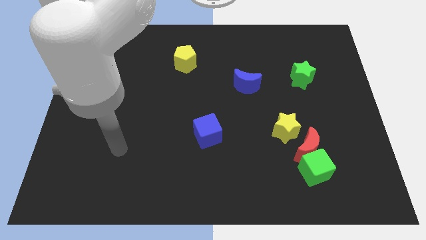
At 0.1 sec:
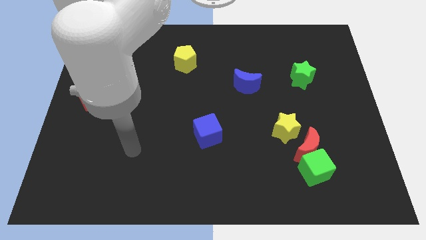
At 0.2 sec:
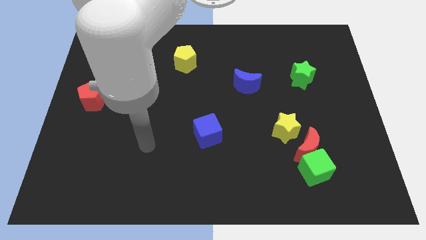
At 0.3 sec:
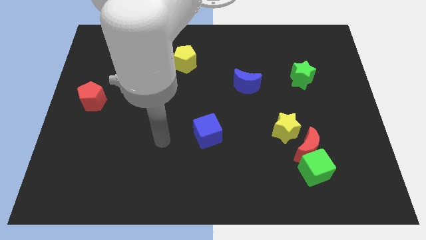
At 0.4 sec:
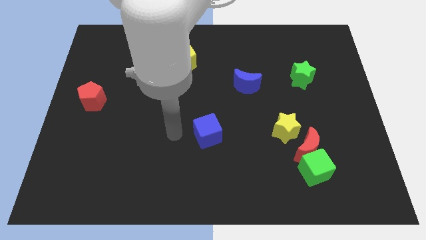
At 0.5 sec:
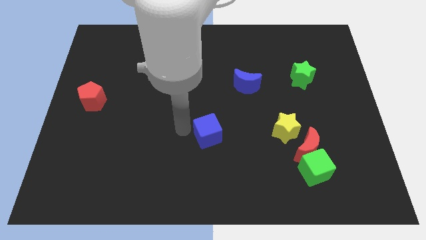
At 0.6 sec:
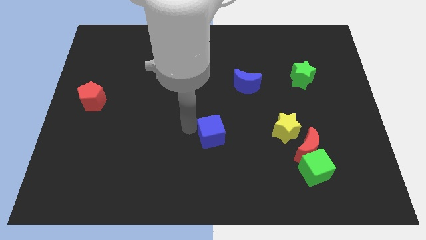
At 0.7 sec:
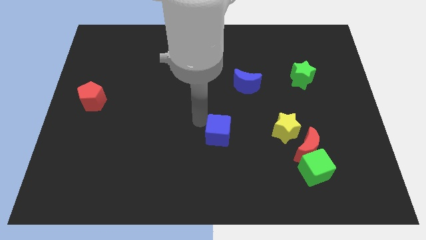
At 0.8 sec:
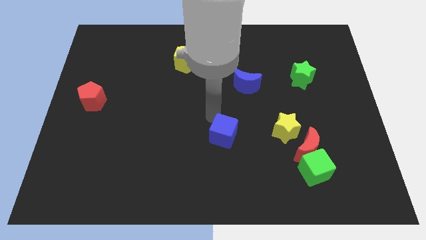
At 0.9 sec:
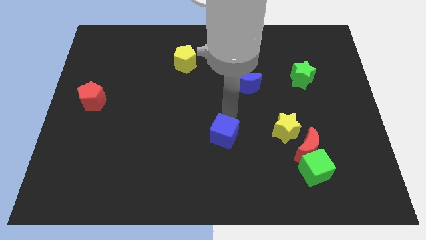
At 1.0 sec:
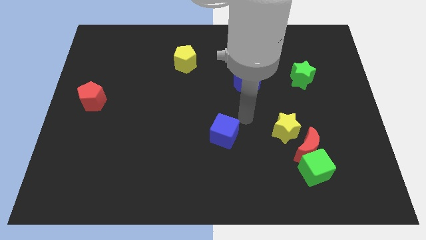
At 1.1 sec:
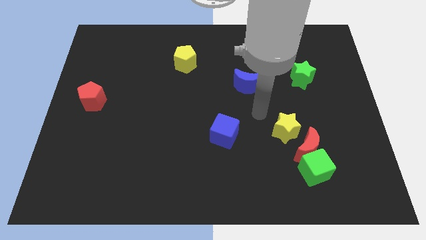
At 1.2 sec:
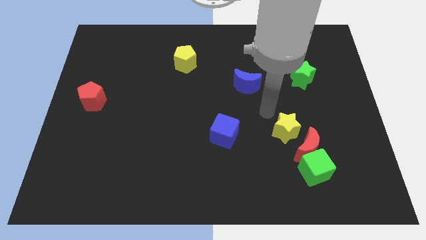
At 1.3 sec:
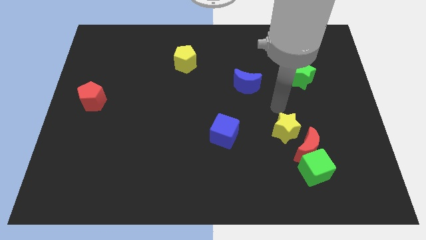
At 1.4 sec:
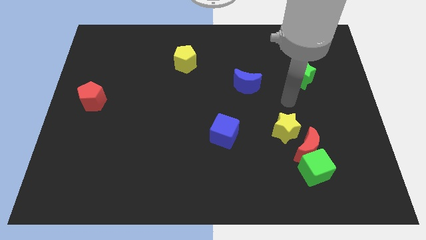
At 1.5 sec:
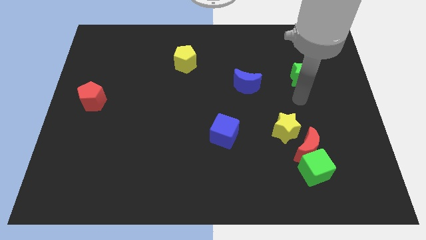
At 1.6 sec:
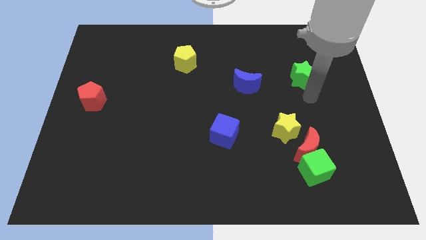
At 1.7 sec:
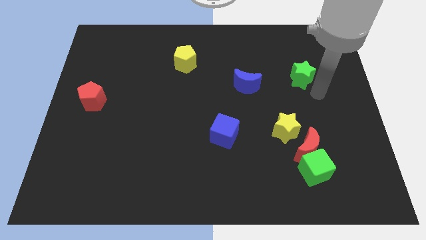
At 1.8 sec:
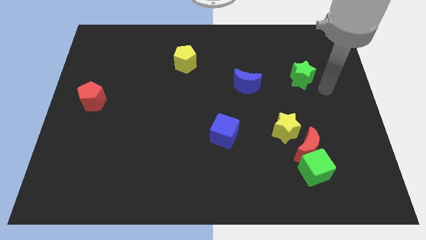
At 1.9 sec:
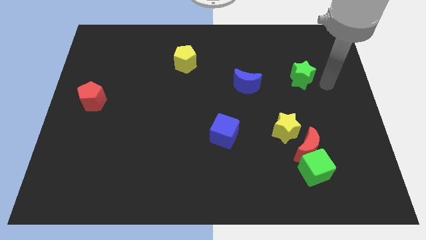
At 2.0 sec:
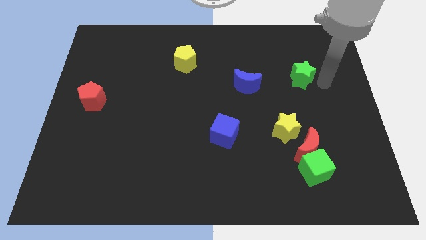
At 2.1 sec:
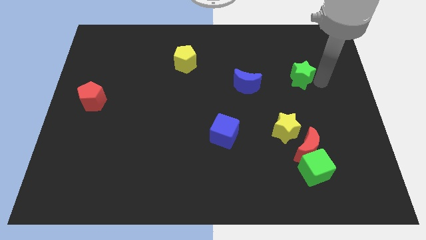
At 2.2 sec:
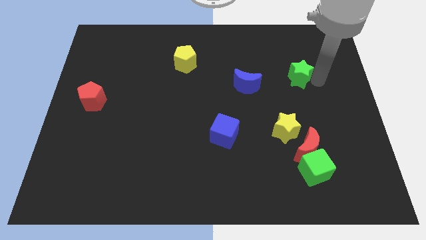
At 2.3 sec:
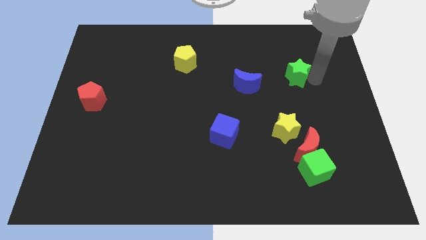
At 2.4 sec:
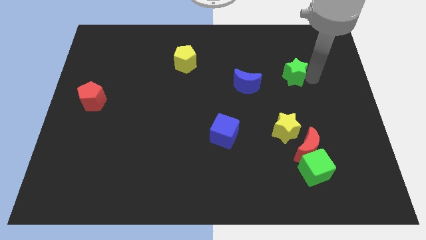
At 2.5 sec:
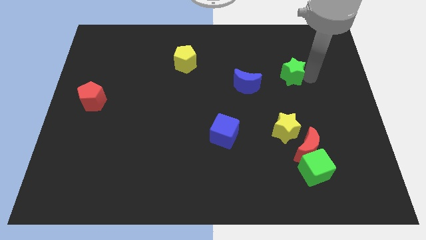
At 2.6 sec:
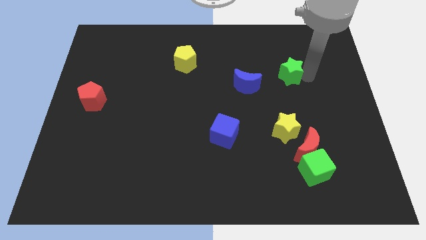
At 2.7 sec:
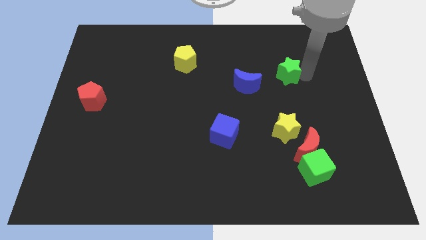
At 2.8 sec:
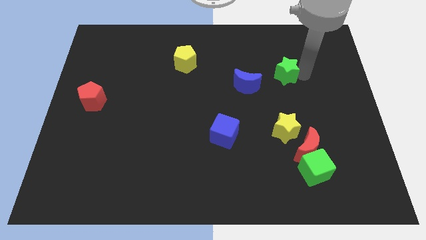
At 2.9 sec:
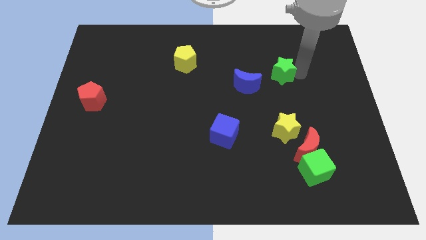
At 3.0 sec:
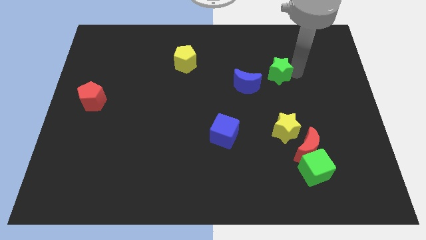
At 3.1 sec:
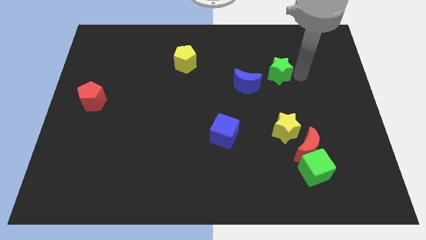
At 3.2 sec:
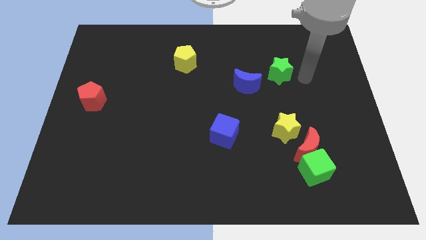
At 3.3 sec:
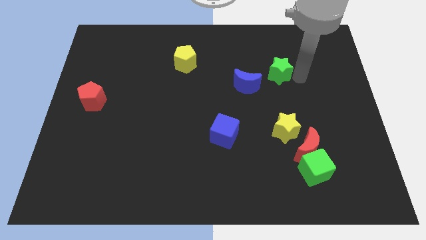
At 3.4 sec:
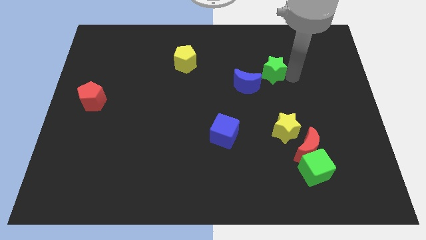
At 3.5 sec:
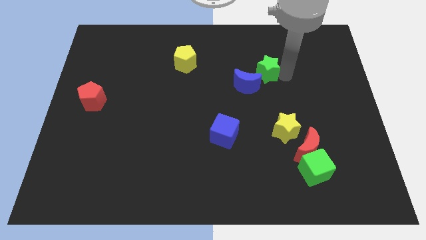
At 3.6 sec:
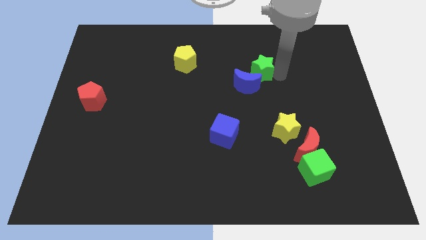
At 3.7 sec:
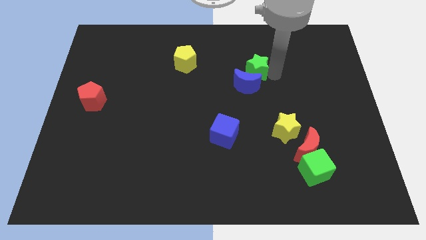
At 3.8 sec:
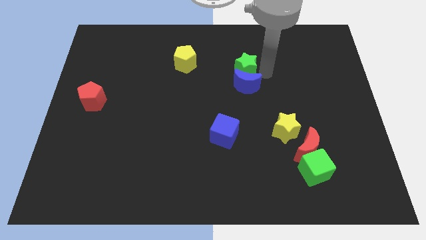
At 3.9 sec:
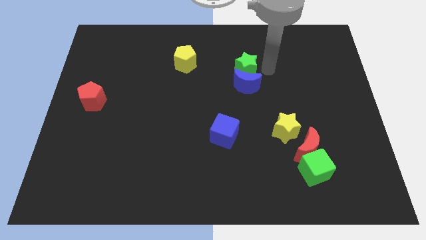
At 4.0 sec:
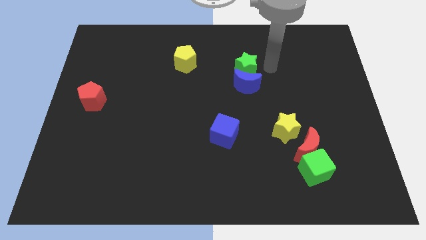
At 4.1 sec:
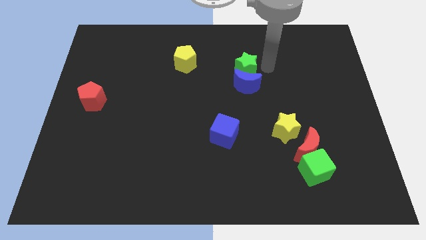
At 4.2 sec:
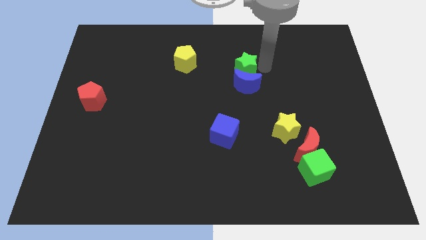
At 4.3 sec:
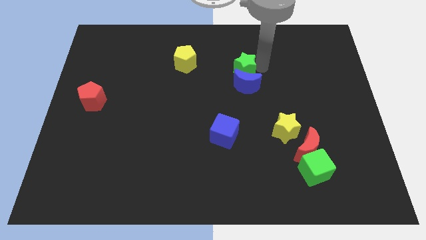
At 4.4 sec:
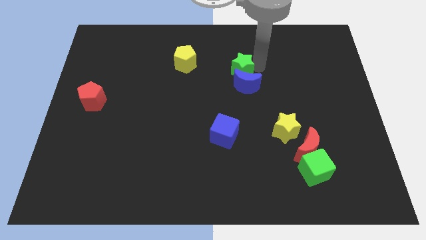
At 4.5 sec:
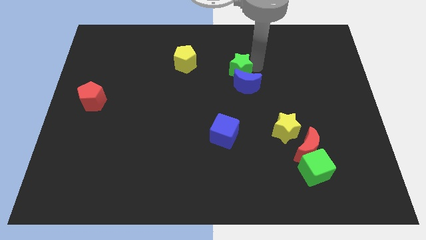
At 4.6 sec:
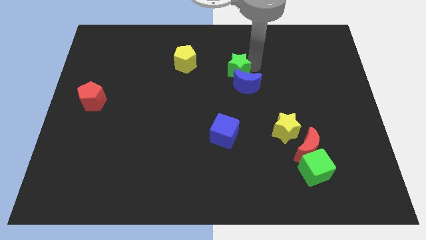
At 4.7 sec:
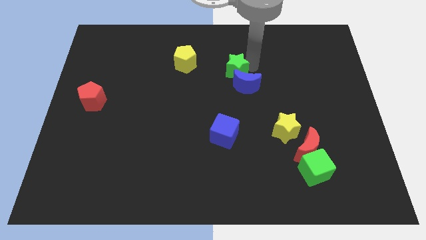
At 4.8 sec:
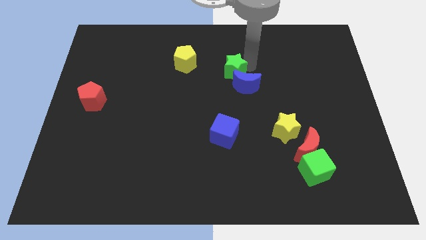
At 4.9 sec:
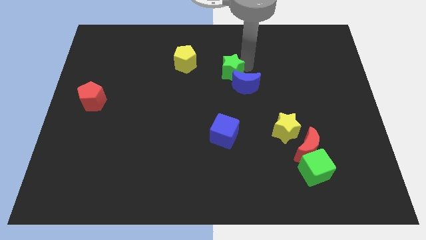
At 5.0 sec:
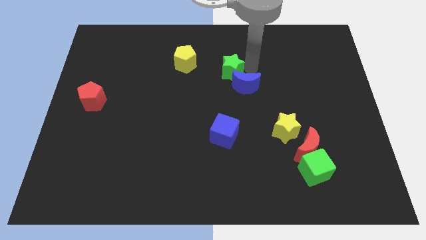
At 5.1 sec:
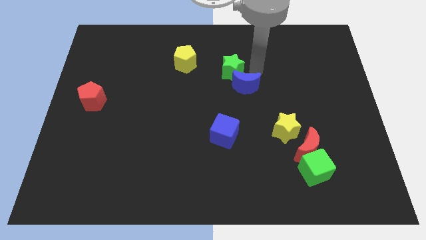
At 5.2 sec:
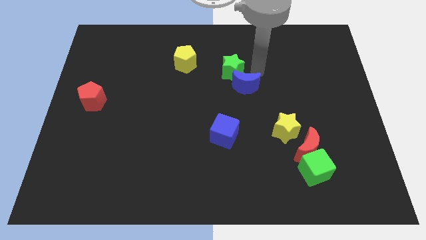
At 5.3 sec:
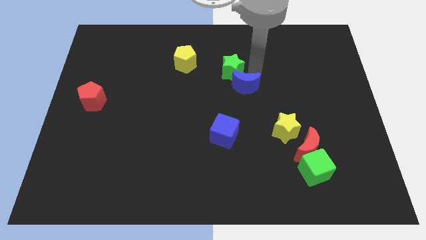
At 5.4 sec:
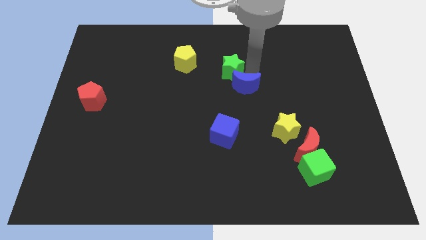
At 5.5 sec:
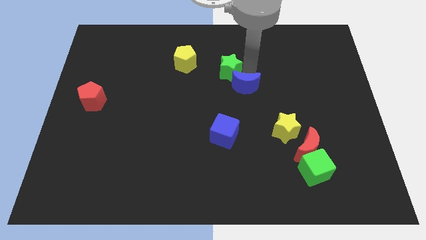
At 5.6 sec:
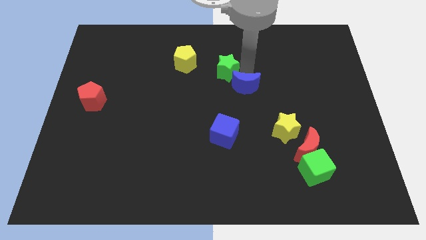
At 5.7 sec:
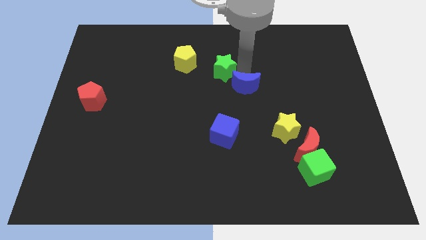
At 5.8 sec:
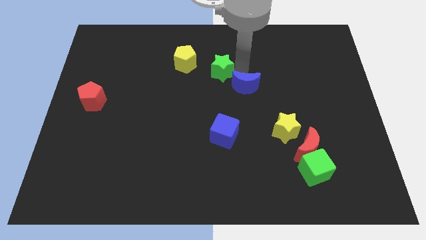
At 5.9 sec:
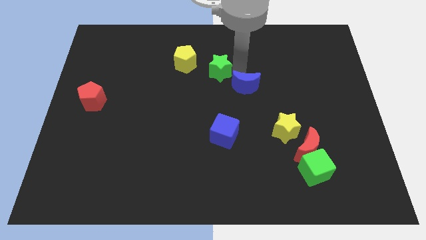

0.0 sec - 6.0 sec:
slide the green star left

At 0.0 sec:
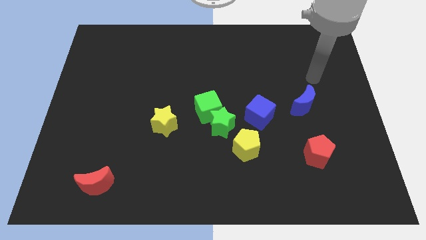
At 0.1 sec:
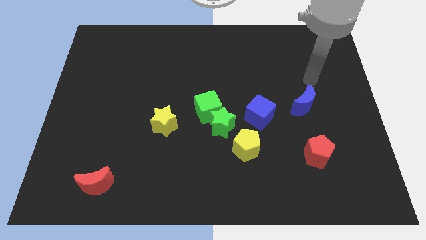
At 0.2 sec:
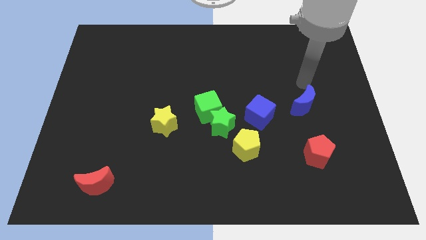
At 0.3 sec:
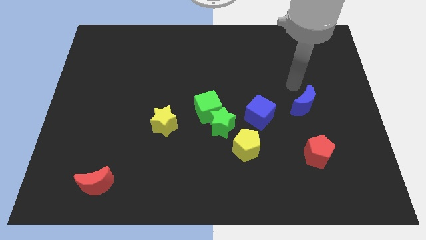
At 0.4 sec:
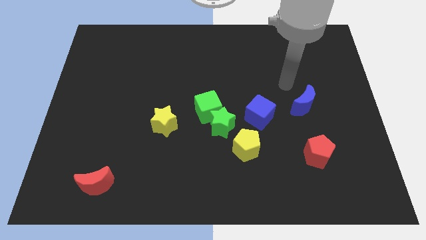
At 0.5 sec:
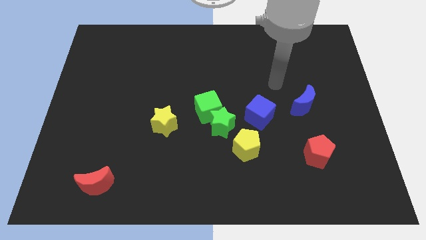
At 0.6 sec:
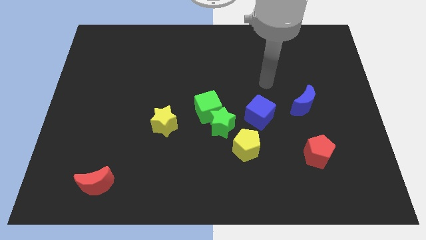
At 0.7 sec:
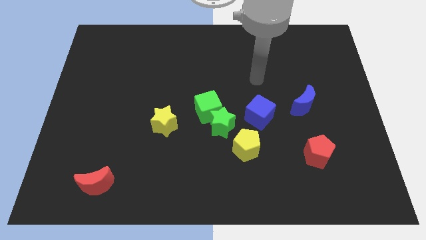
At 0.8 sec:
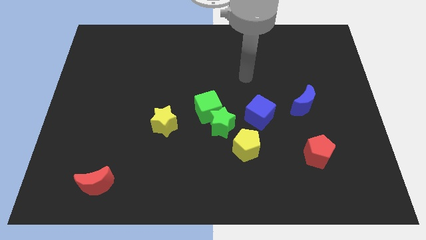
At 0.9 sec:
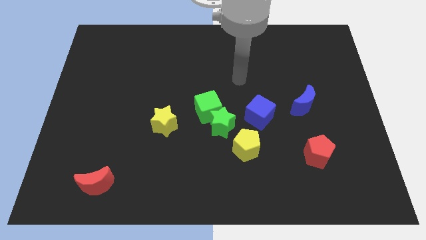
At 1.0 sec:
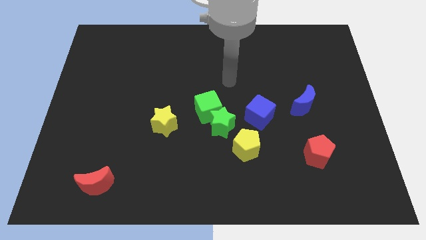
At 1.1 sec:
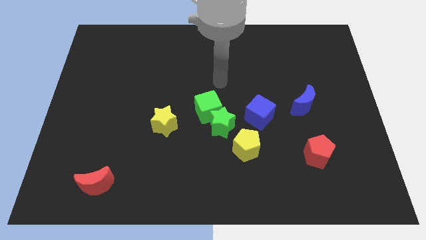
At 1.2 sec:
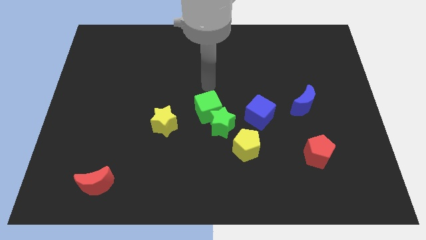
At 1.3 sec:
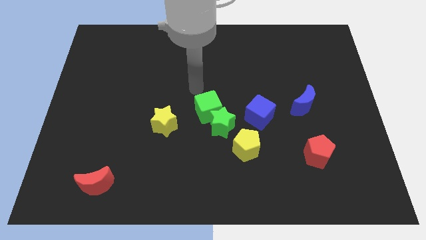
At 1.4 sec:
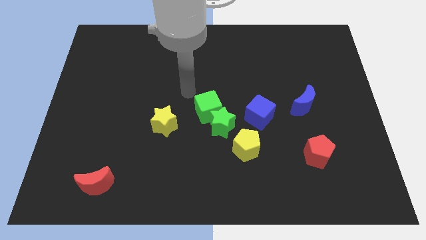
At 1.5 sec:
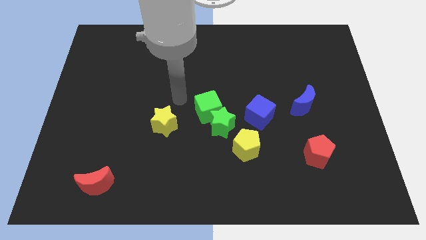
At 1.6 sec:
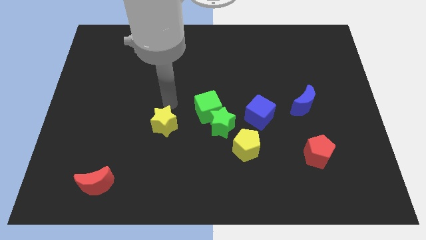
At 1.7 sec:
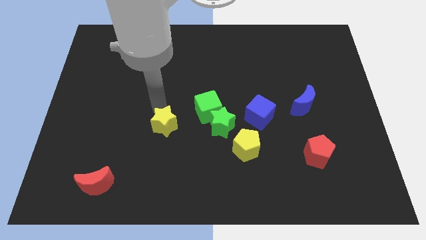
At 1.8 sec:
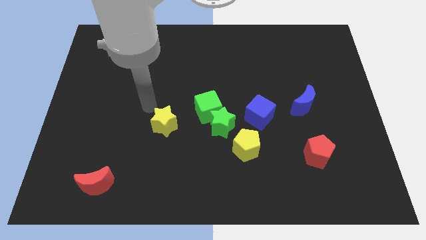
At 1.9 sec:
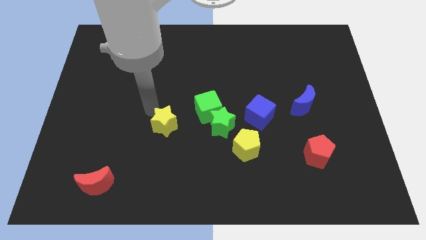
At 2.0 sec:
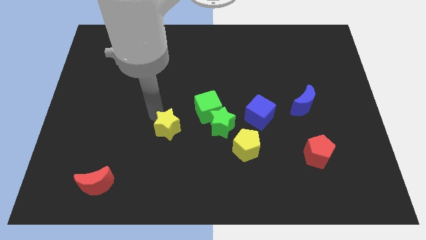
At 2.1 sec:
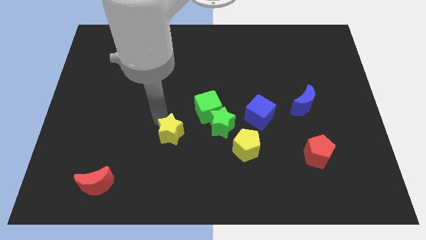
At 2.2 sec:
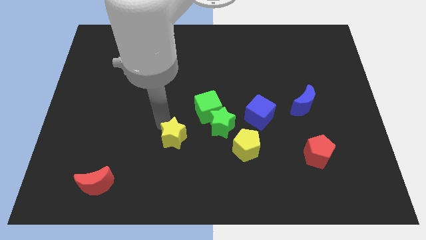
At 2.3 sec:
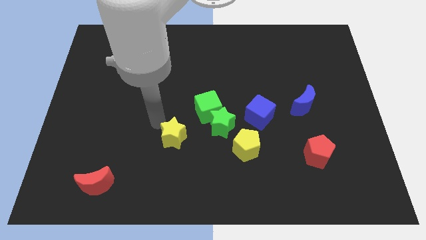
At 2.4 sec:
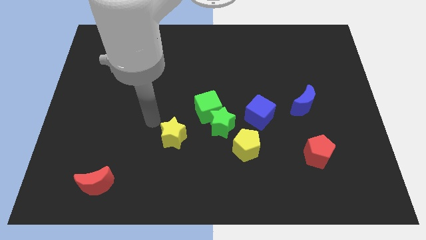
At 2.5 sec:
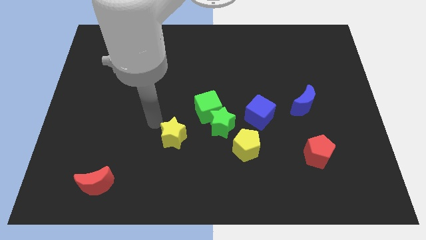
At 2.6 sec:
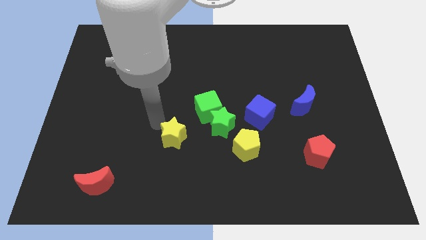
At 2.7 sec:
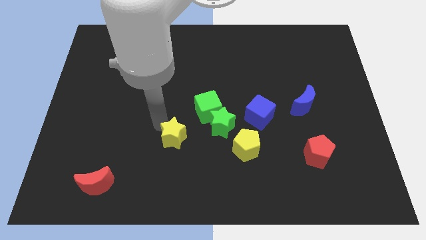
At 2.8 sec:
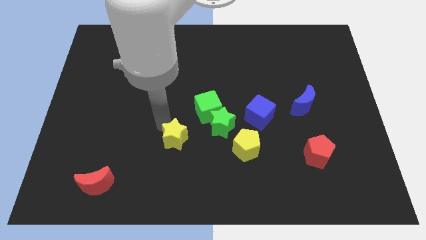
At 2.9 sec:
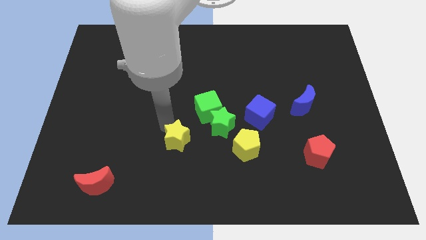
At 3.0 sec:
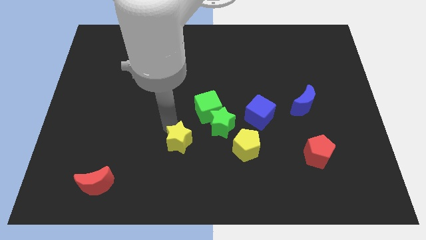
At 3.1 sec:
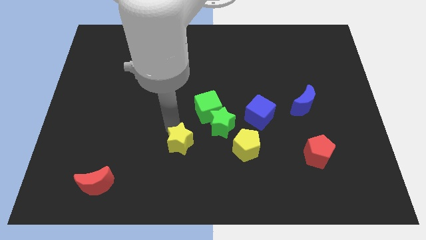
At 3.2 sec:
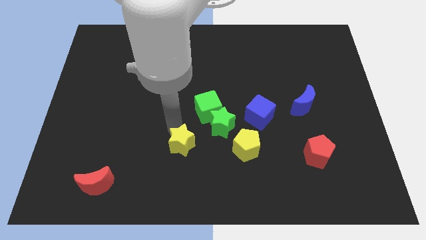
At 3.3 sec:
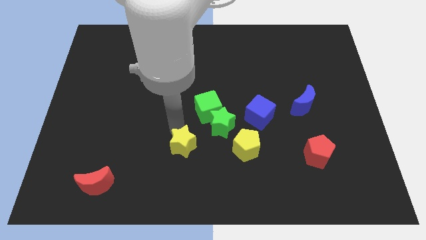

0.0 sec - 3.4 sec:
slightly push the yellow star downwards and to the right
